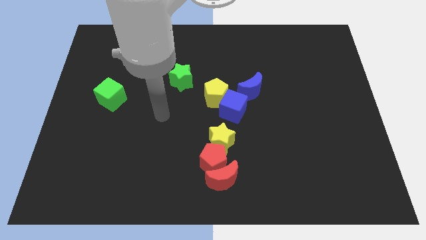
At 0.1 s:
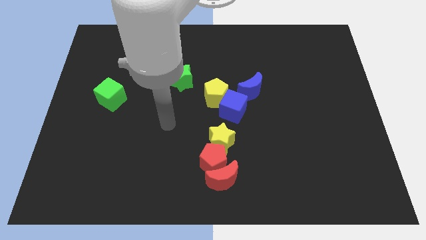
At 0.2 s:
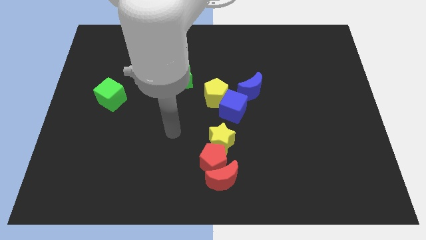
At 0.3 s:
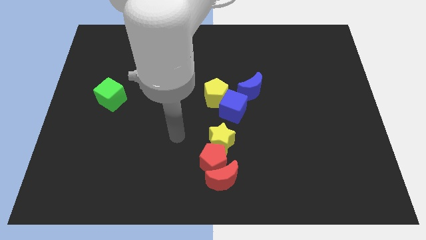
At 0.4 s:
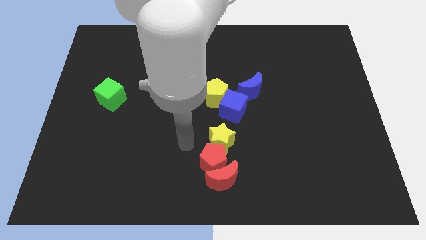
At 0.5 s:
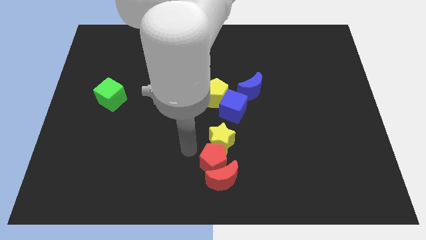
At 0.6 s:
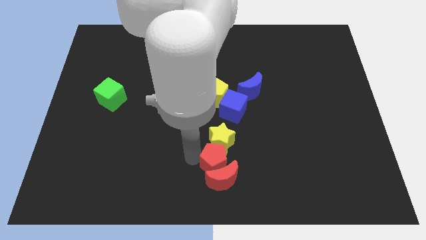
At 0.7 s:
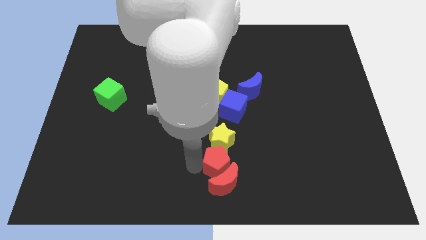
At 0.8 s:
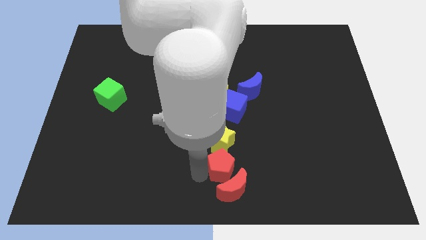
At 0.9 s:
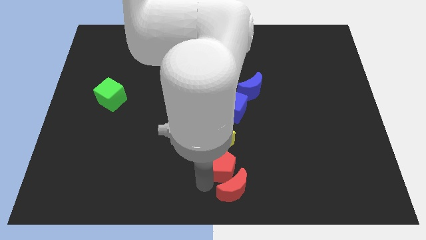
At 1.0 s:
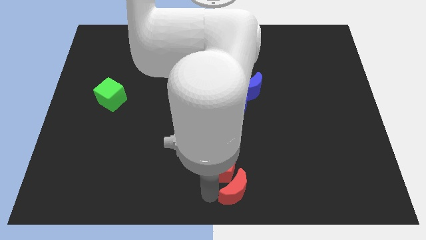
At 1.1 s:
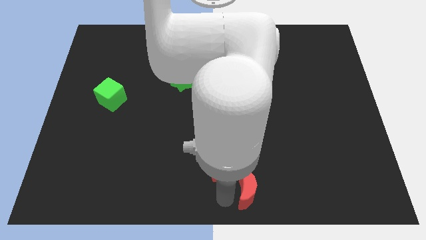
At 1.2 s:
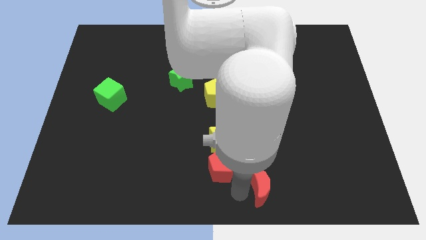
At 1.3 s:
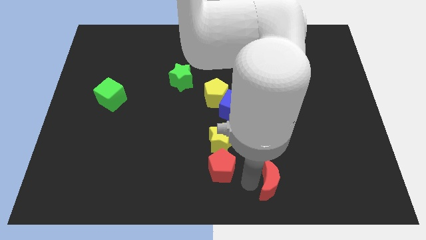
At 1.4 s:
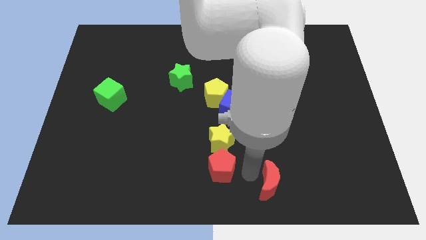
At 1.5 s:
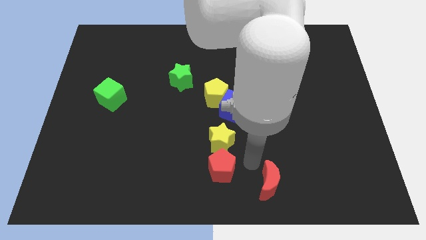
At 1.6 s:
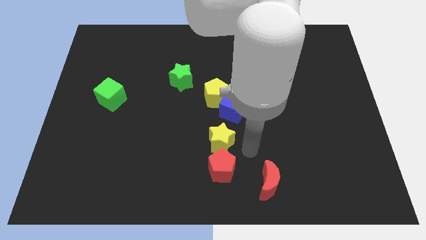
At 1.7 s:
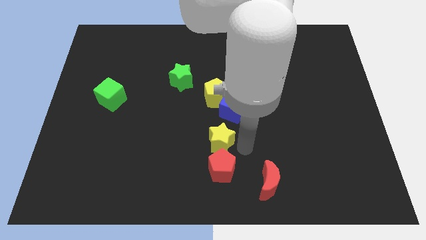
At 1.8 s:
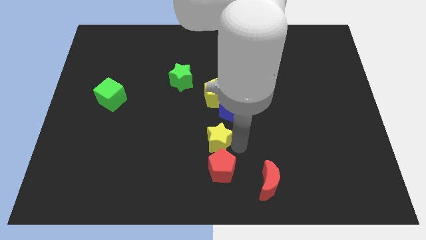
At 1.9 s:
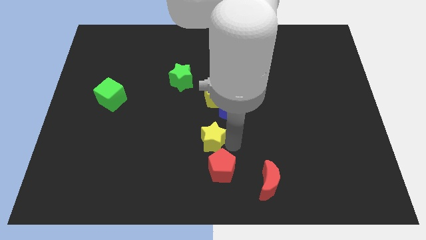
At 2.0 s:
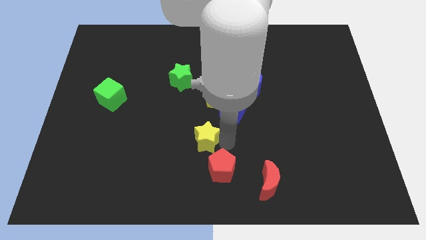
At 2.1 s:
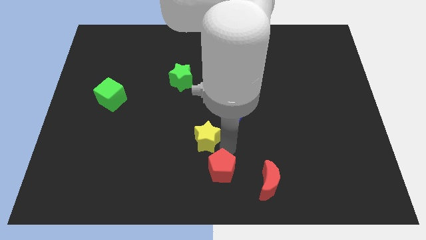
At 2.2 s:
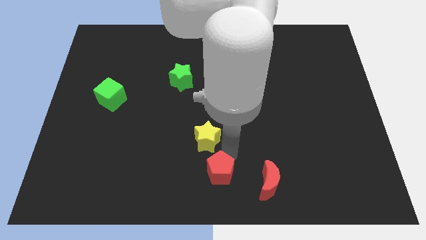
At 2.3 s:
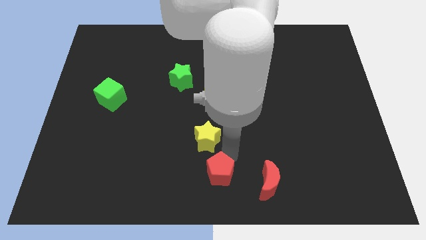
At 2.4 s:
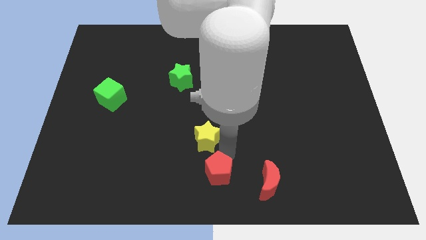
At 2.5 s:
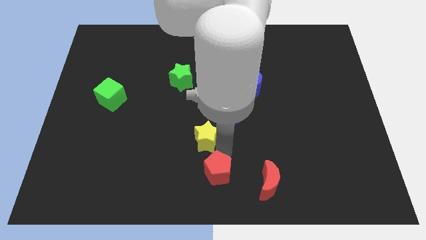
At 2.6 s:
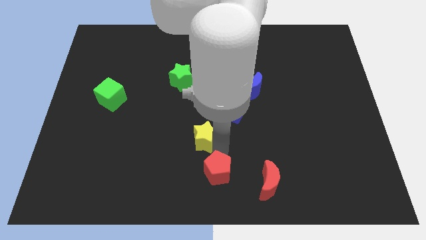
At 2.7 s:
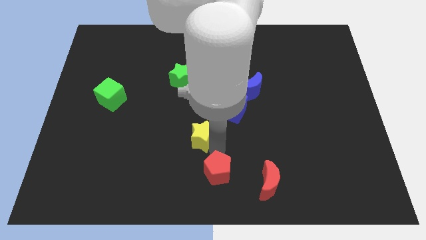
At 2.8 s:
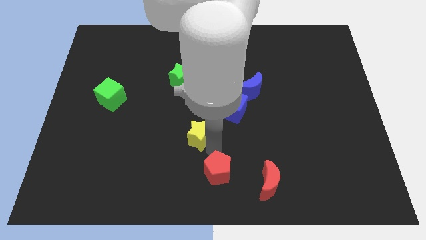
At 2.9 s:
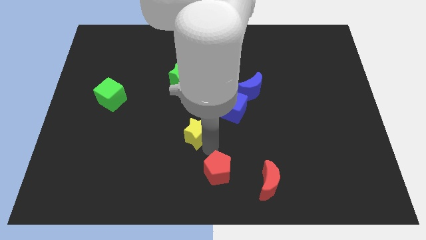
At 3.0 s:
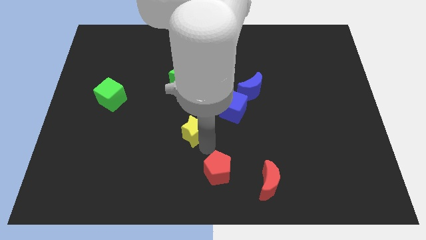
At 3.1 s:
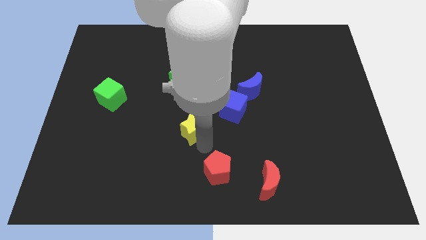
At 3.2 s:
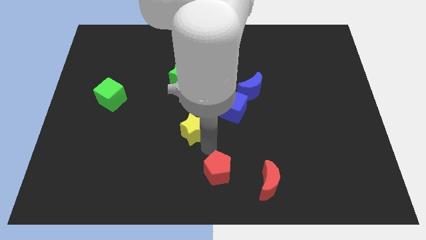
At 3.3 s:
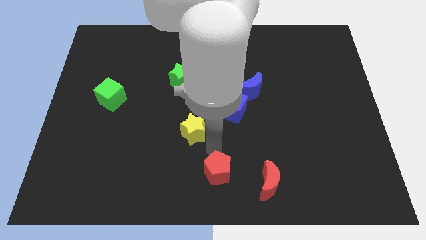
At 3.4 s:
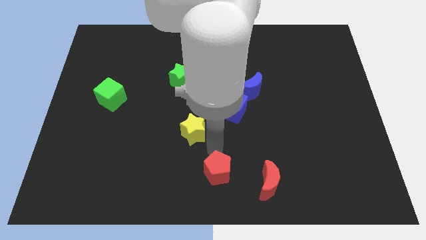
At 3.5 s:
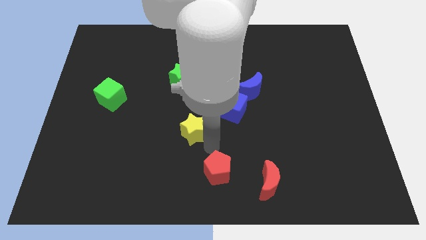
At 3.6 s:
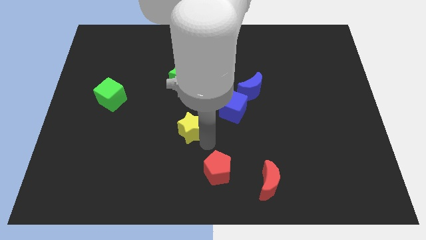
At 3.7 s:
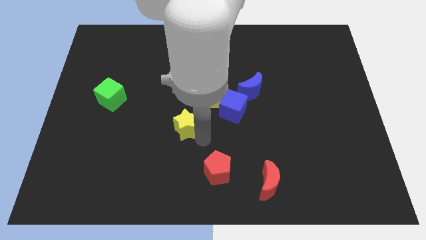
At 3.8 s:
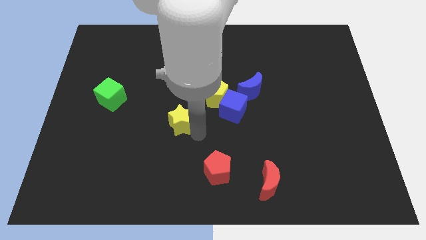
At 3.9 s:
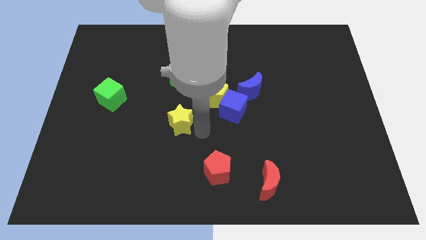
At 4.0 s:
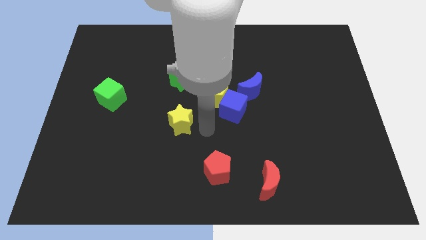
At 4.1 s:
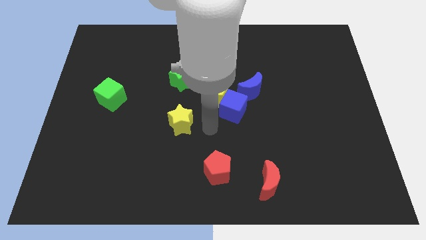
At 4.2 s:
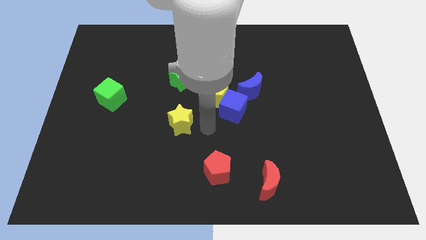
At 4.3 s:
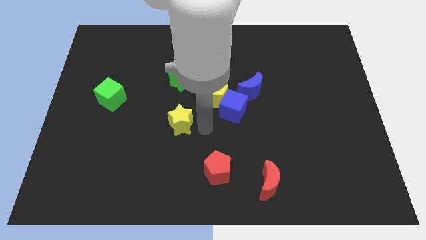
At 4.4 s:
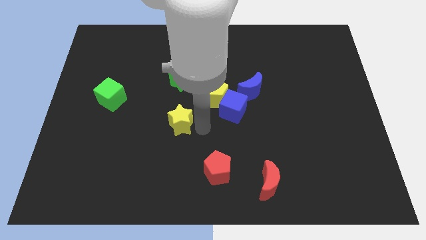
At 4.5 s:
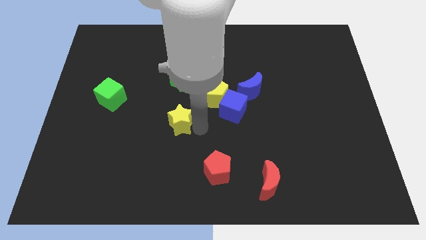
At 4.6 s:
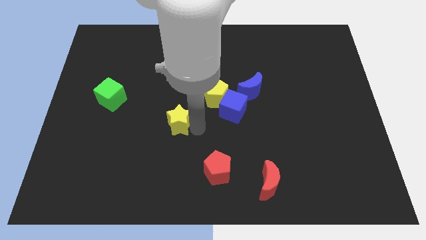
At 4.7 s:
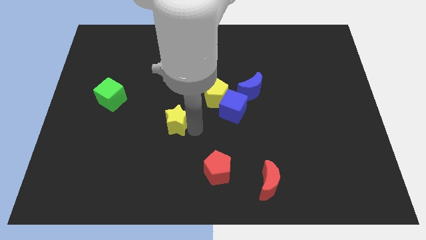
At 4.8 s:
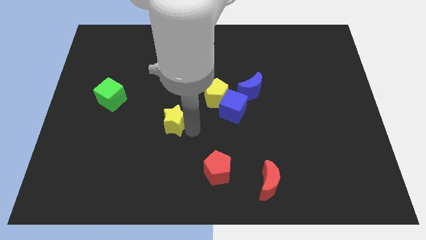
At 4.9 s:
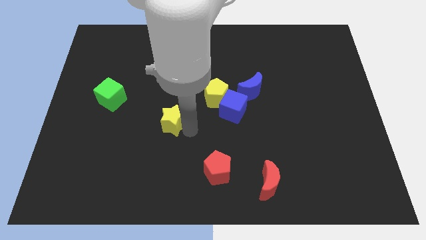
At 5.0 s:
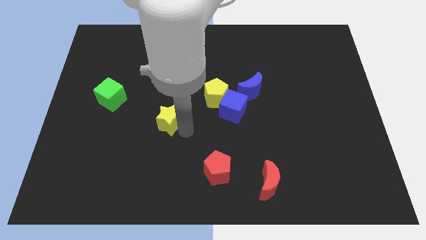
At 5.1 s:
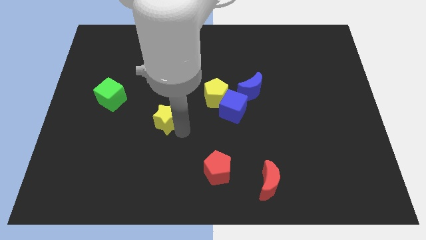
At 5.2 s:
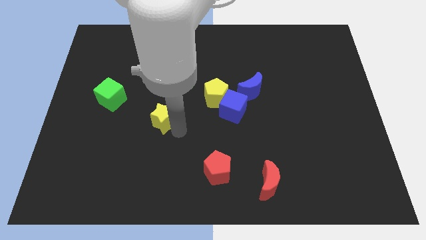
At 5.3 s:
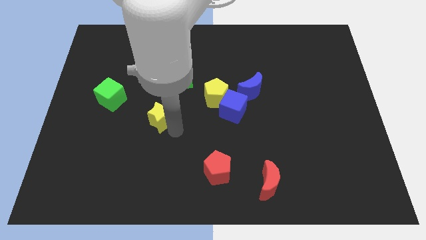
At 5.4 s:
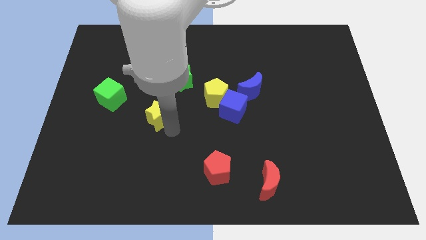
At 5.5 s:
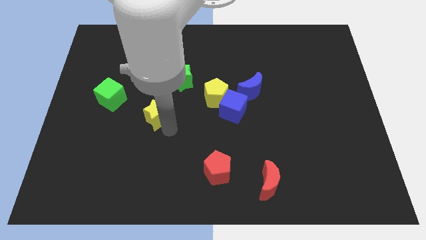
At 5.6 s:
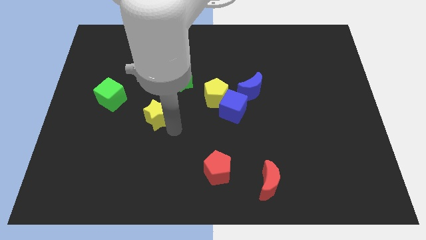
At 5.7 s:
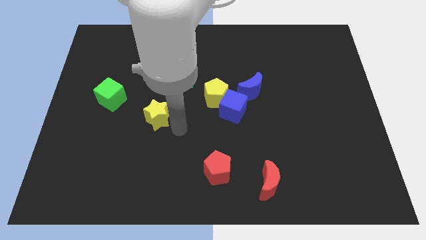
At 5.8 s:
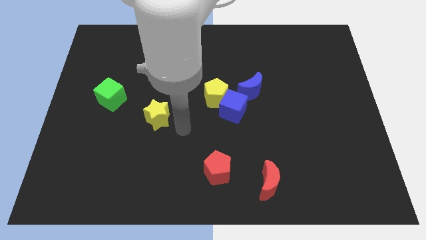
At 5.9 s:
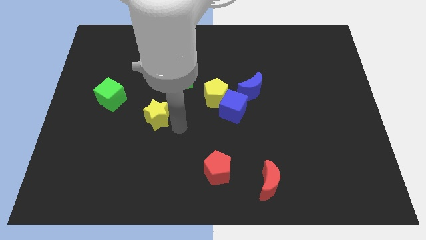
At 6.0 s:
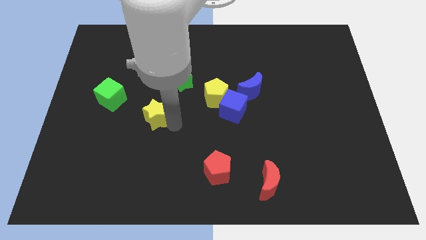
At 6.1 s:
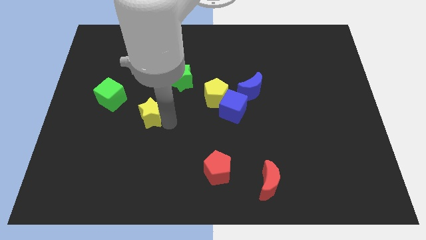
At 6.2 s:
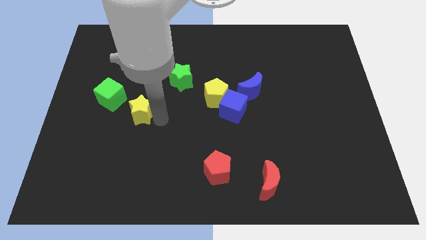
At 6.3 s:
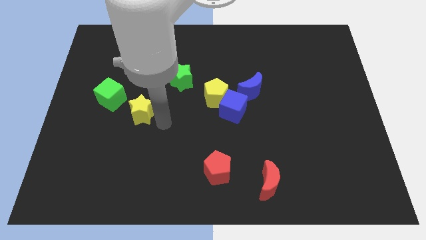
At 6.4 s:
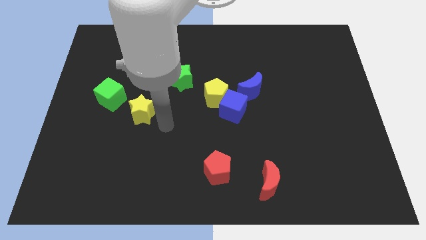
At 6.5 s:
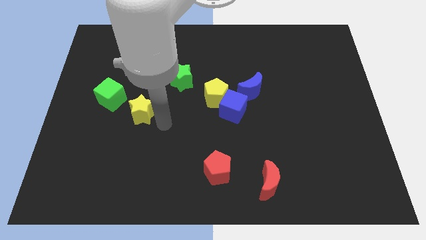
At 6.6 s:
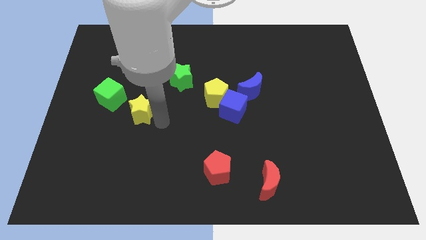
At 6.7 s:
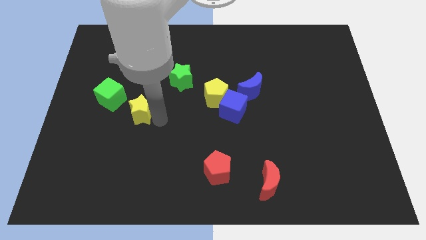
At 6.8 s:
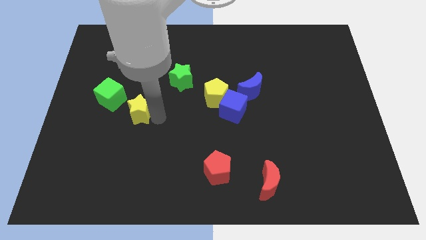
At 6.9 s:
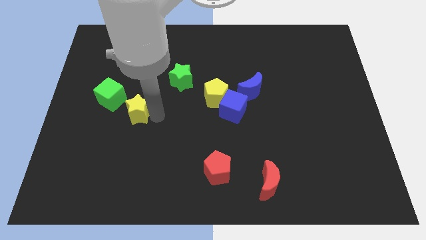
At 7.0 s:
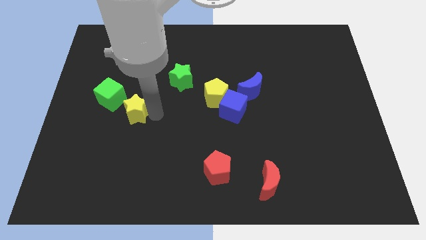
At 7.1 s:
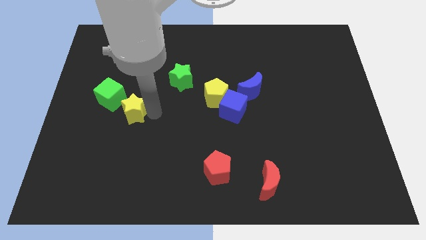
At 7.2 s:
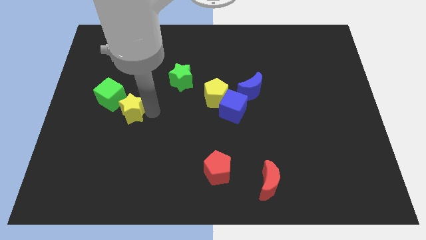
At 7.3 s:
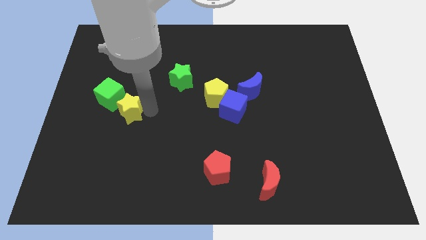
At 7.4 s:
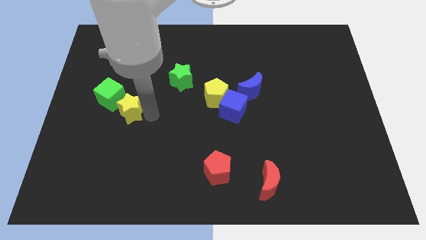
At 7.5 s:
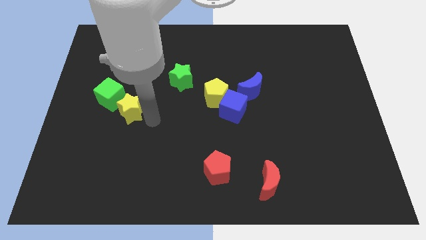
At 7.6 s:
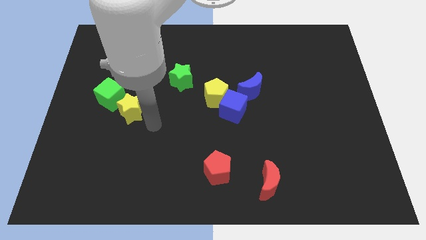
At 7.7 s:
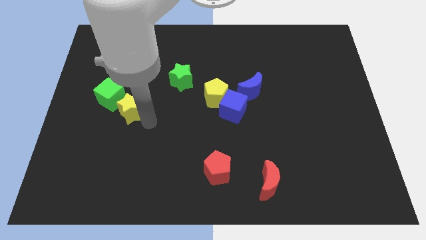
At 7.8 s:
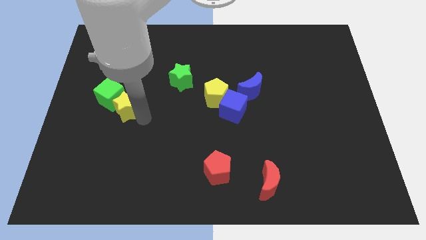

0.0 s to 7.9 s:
move the yellow star towards the green cube

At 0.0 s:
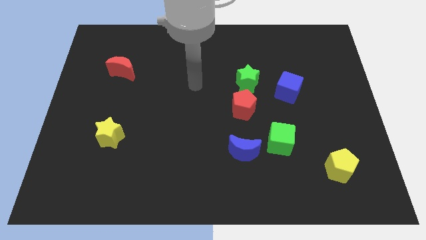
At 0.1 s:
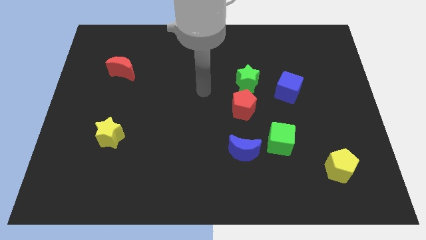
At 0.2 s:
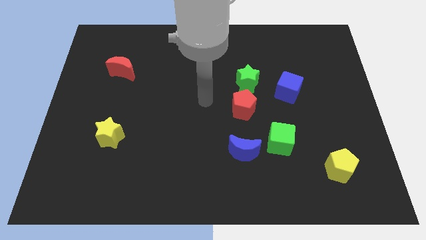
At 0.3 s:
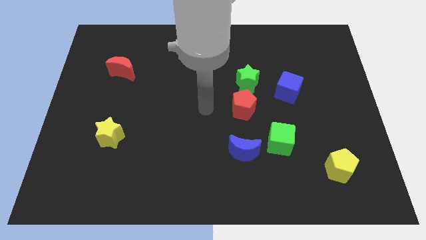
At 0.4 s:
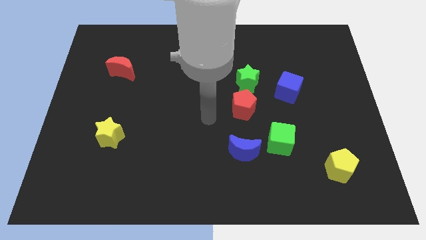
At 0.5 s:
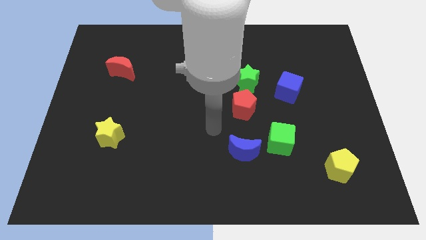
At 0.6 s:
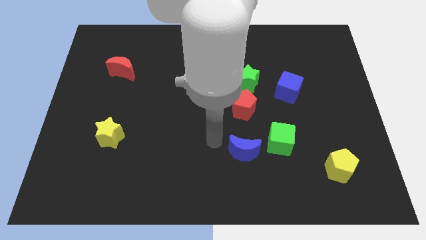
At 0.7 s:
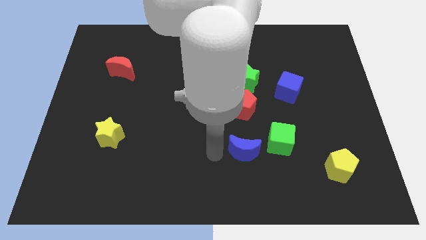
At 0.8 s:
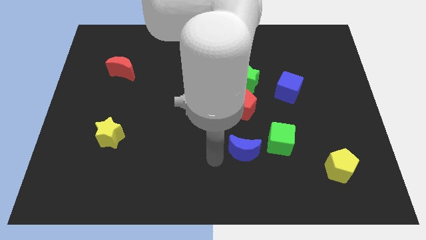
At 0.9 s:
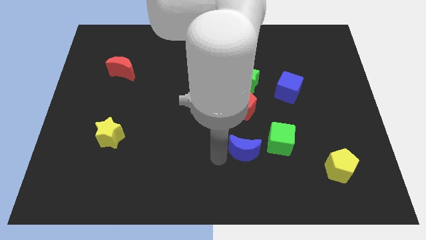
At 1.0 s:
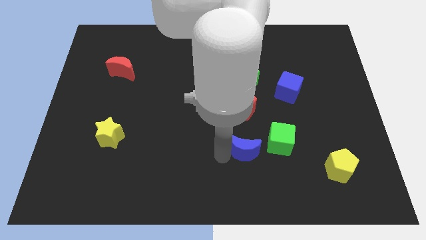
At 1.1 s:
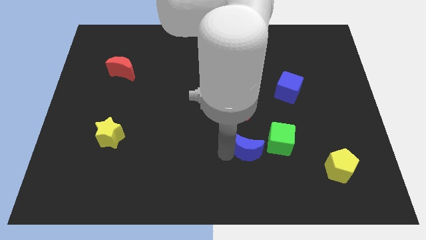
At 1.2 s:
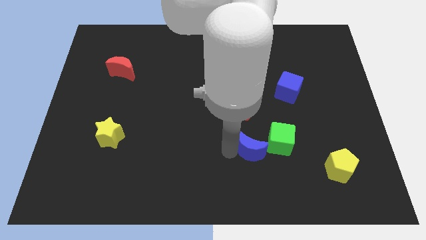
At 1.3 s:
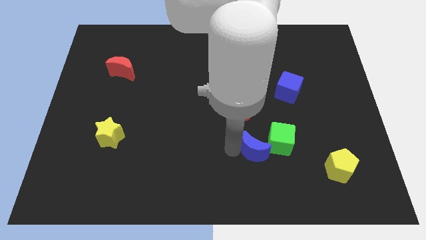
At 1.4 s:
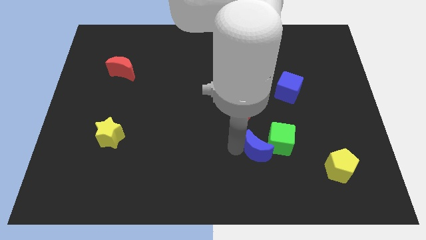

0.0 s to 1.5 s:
push the blue moon to the green cube
